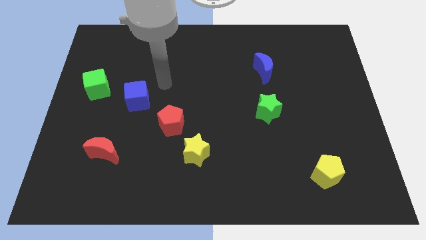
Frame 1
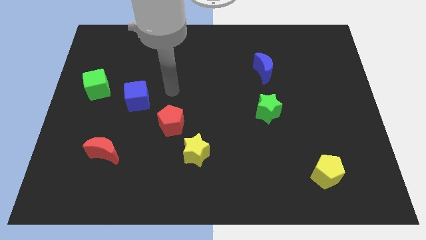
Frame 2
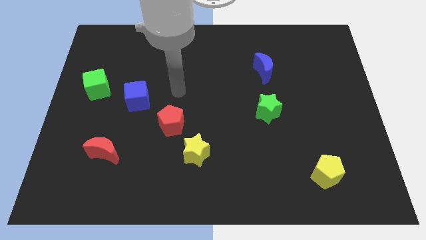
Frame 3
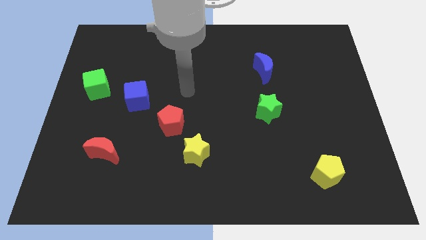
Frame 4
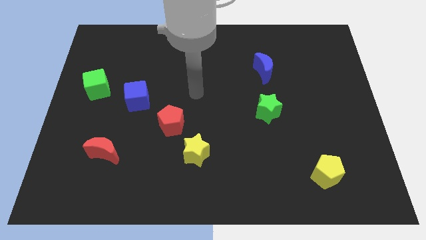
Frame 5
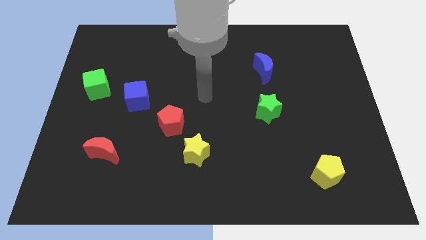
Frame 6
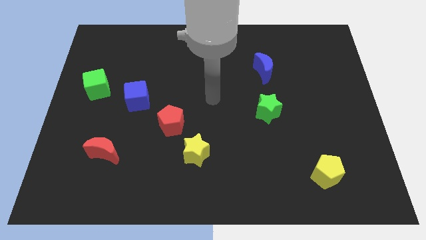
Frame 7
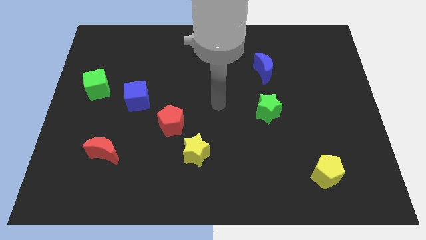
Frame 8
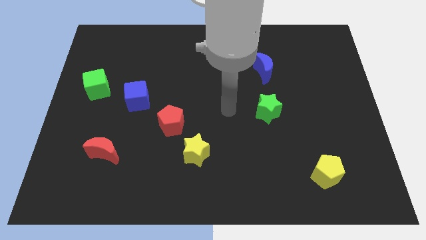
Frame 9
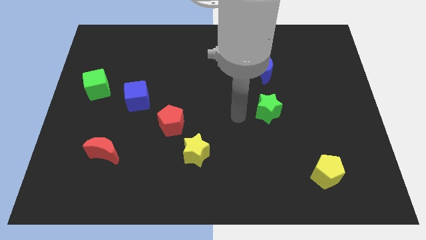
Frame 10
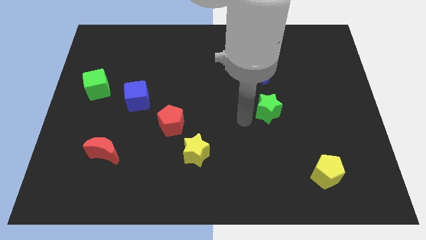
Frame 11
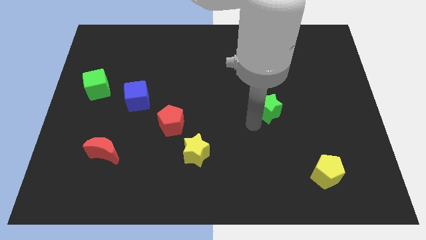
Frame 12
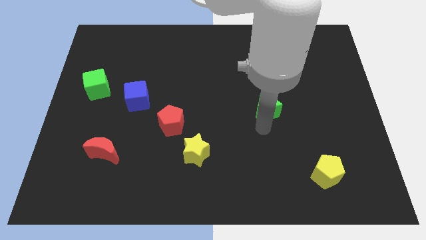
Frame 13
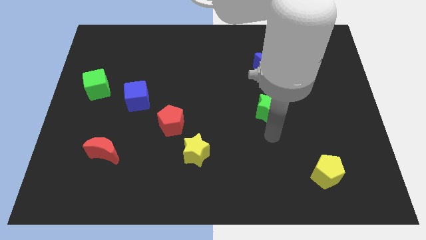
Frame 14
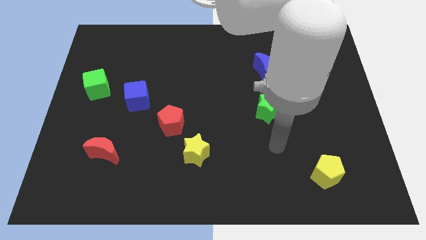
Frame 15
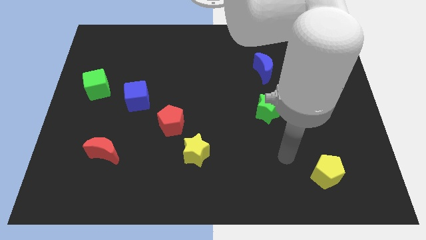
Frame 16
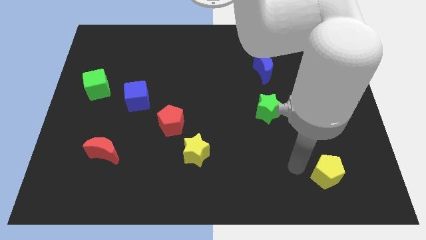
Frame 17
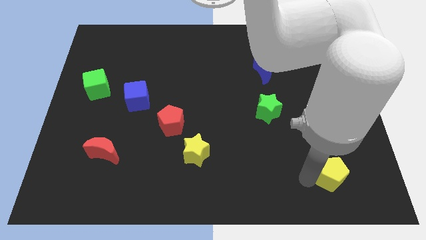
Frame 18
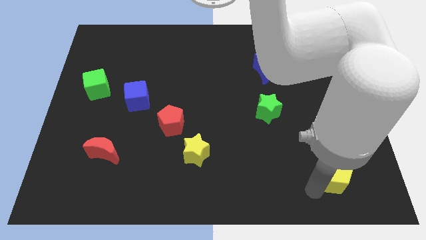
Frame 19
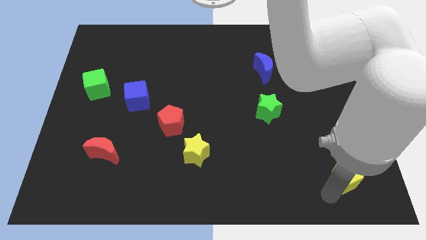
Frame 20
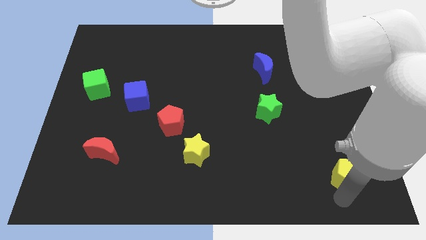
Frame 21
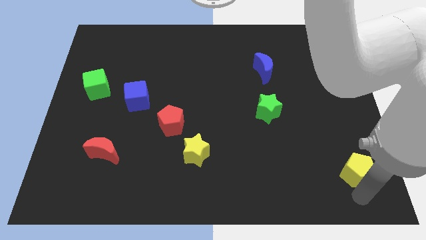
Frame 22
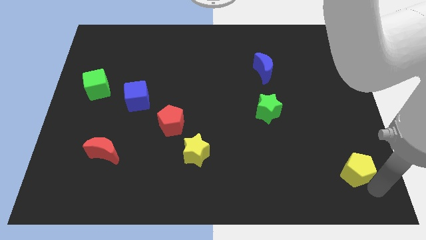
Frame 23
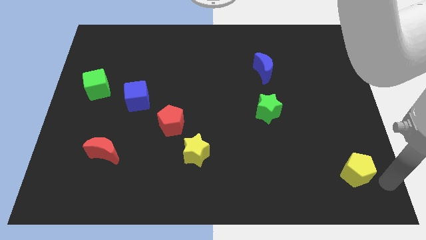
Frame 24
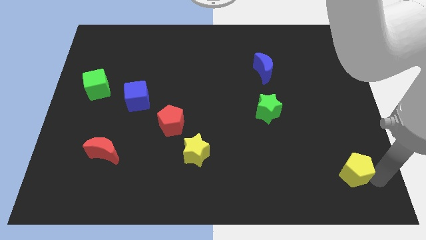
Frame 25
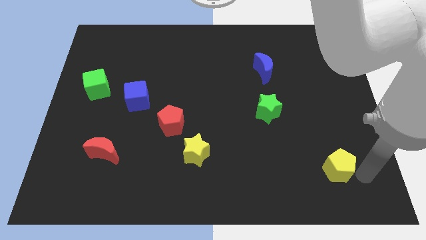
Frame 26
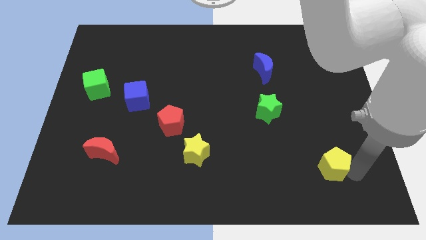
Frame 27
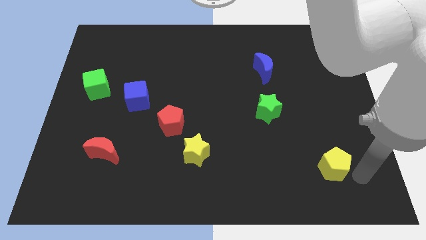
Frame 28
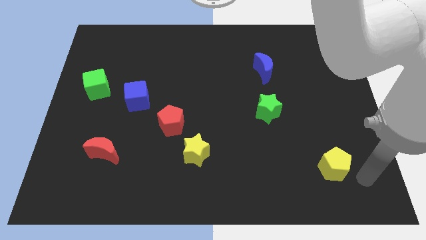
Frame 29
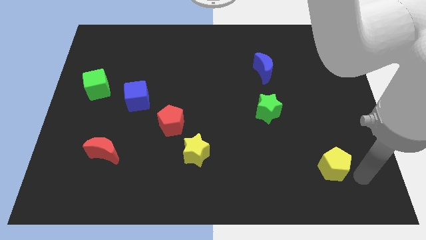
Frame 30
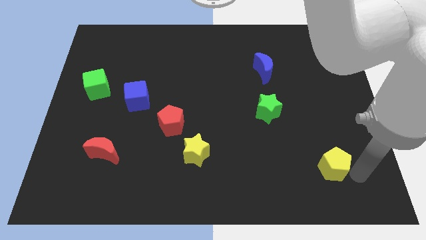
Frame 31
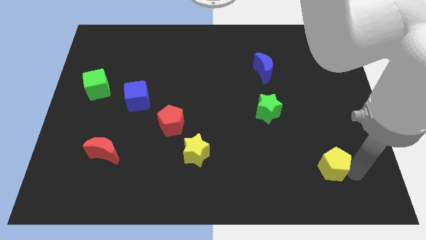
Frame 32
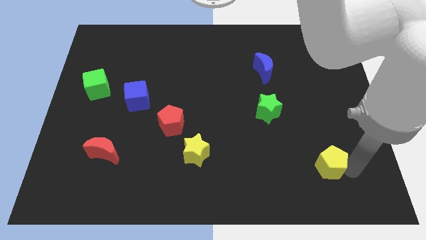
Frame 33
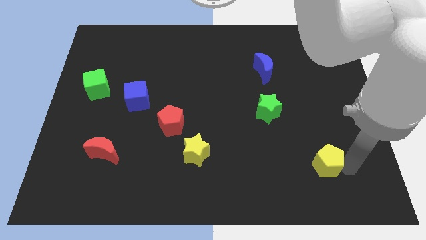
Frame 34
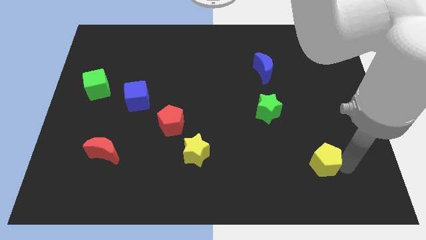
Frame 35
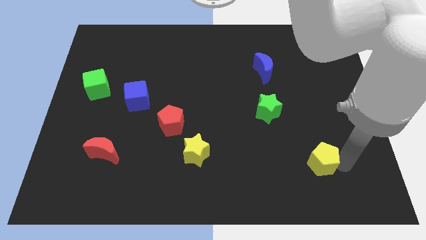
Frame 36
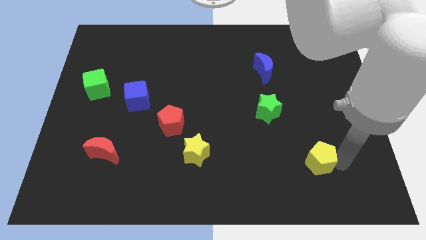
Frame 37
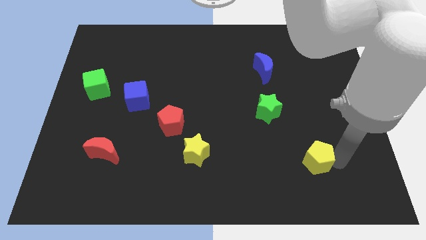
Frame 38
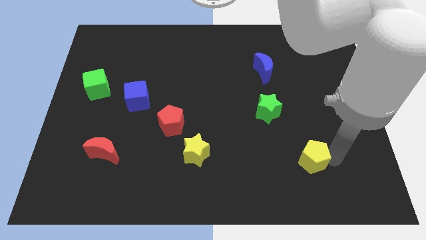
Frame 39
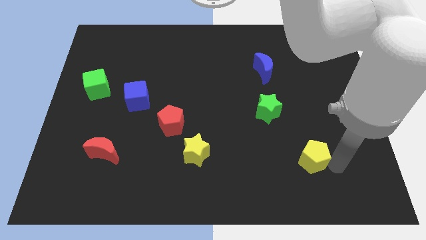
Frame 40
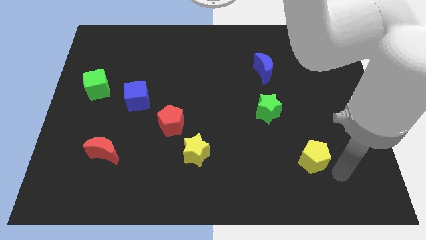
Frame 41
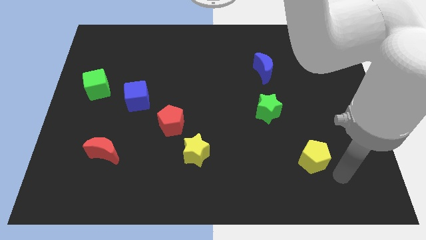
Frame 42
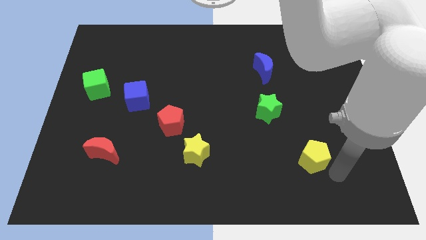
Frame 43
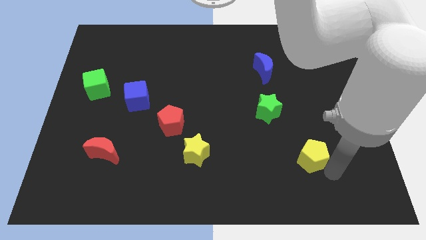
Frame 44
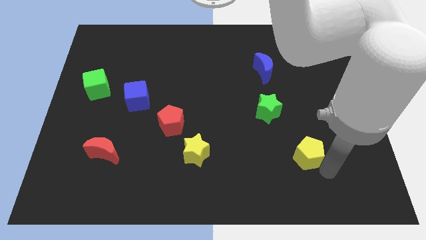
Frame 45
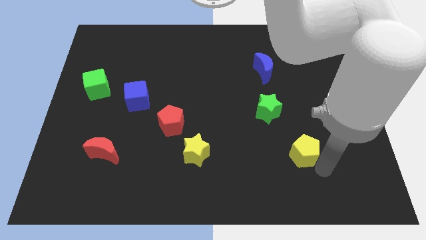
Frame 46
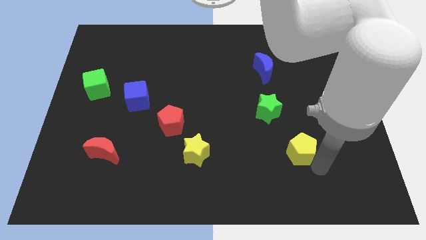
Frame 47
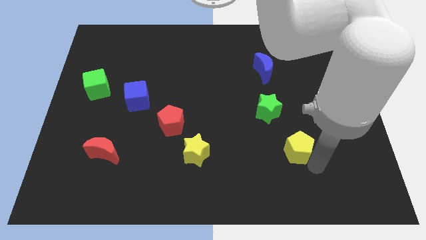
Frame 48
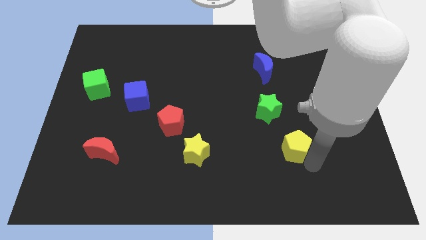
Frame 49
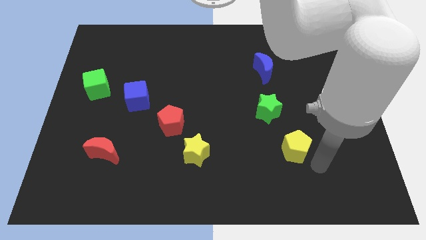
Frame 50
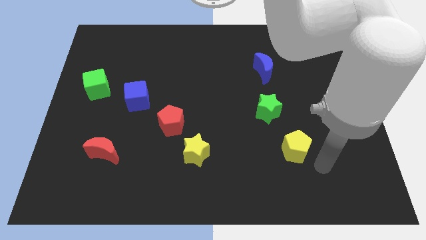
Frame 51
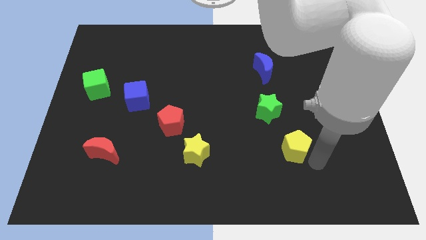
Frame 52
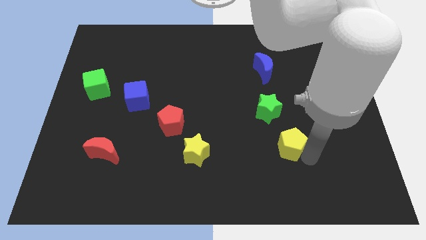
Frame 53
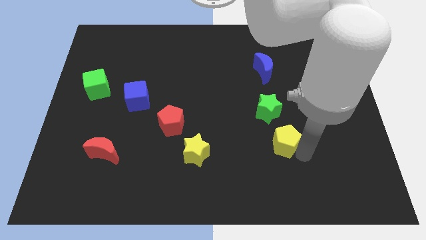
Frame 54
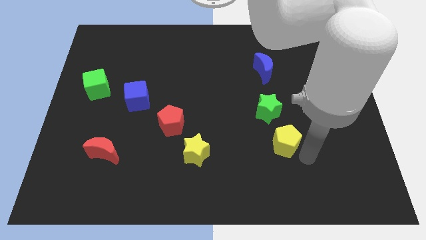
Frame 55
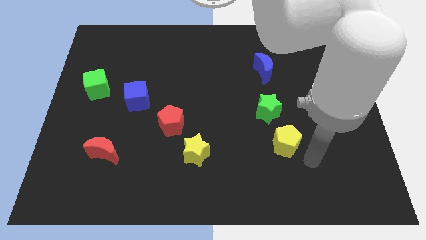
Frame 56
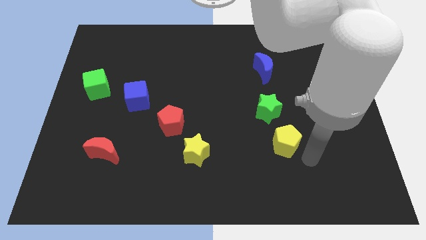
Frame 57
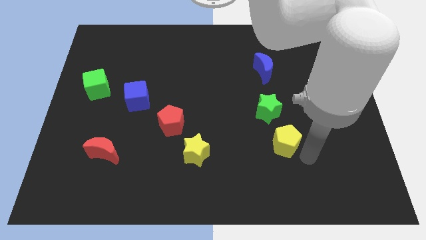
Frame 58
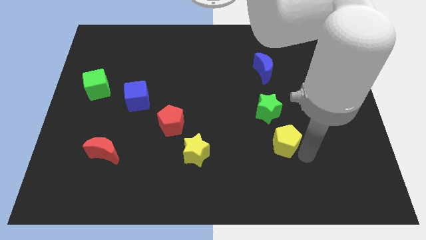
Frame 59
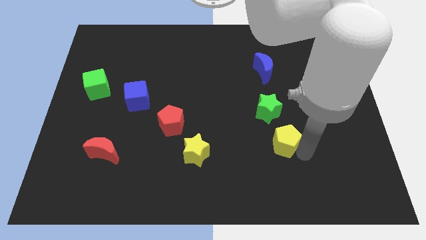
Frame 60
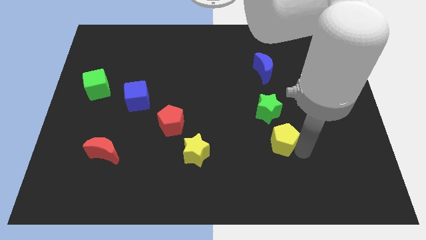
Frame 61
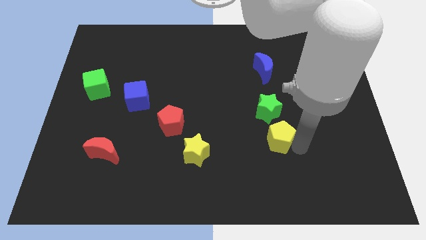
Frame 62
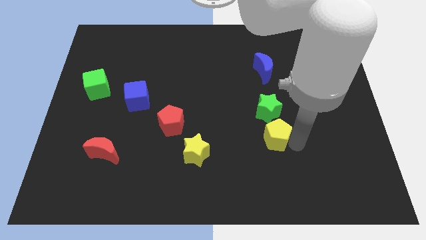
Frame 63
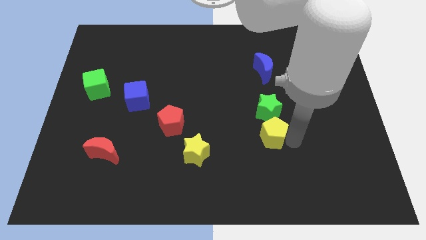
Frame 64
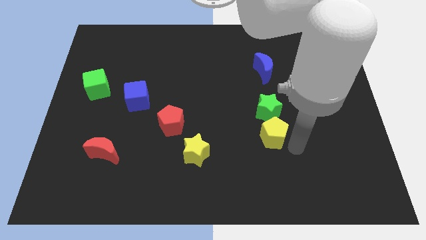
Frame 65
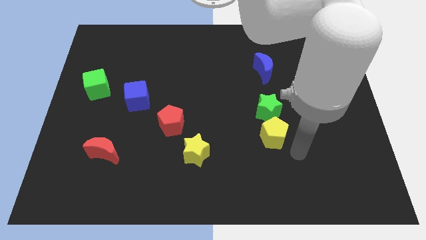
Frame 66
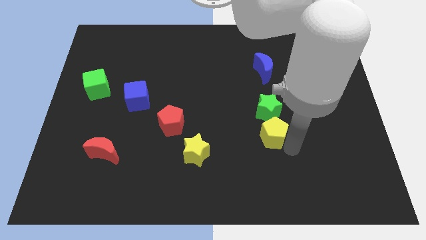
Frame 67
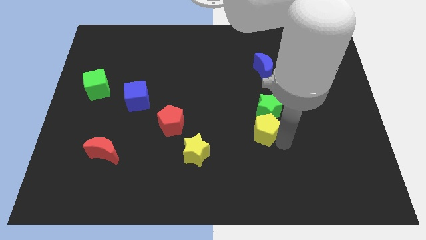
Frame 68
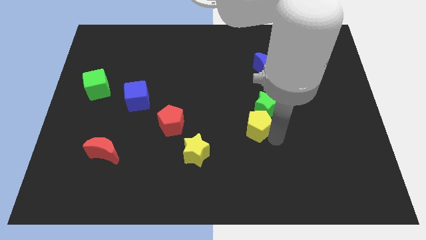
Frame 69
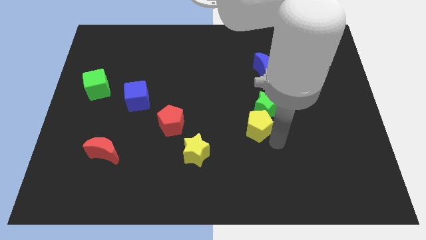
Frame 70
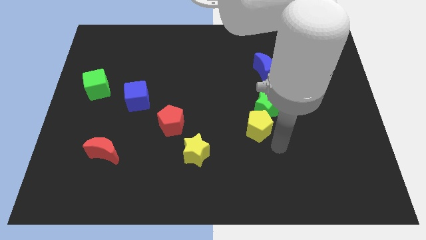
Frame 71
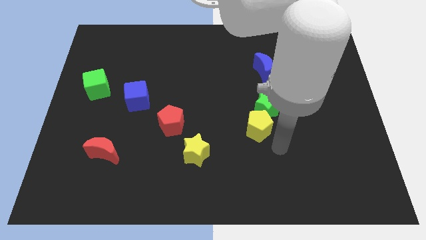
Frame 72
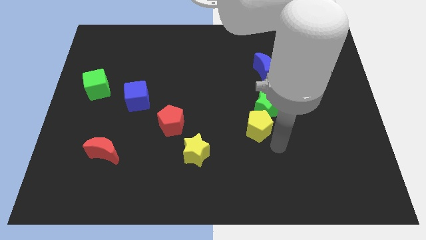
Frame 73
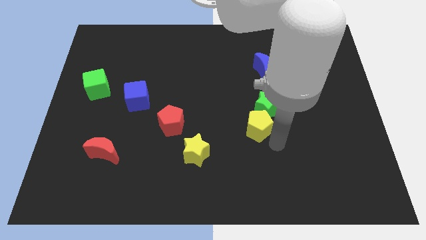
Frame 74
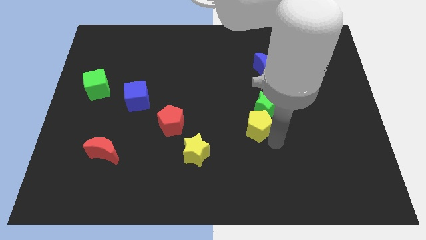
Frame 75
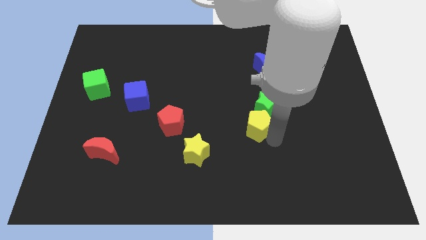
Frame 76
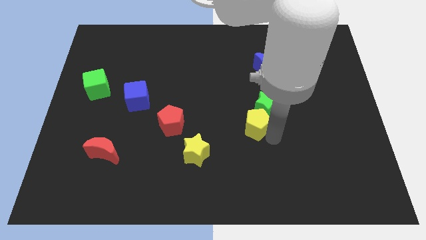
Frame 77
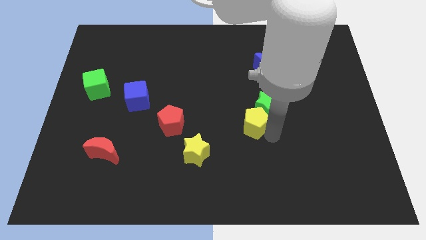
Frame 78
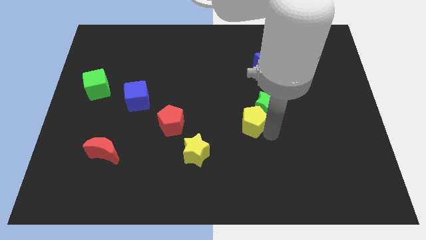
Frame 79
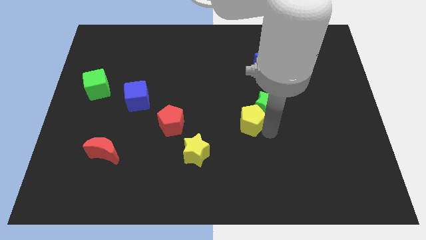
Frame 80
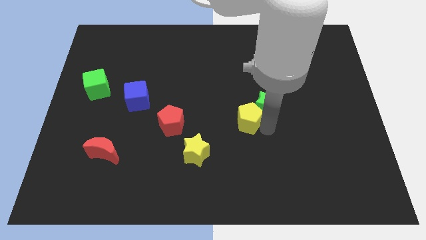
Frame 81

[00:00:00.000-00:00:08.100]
slide the yellow pentagon upwards and to the left diagonally
